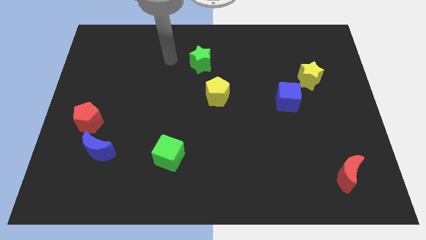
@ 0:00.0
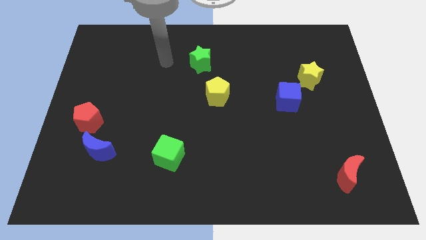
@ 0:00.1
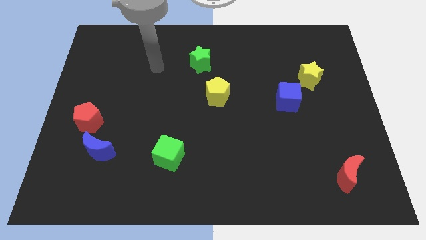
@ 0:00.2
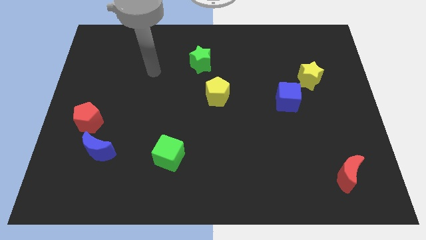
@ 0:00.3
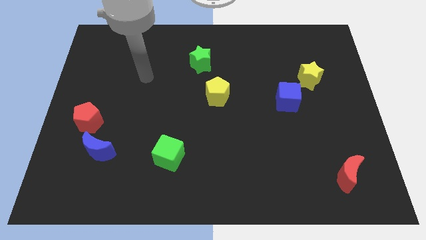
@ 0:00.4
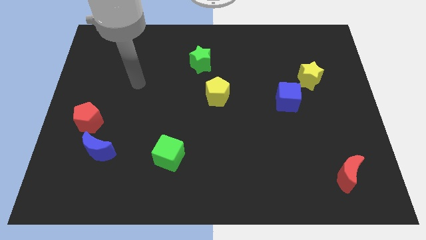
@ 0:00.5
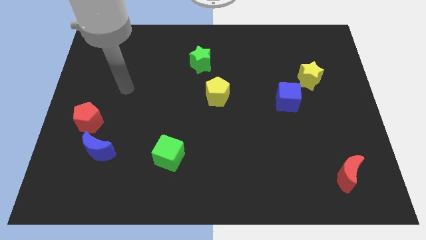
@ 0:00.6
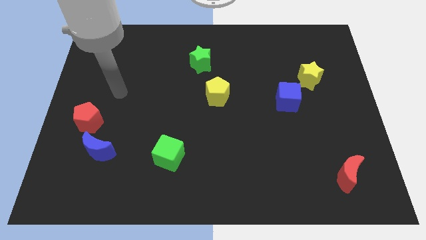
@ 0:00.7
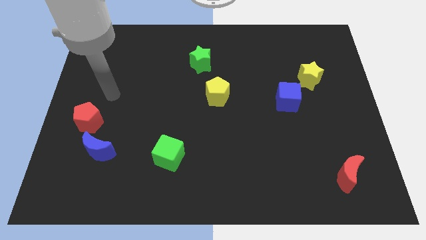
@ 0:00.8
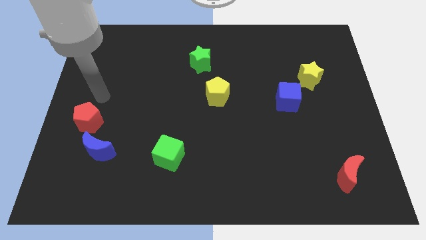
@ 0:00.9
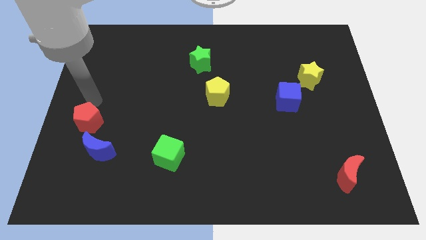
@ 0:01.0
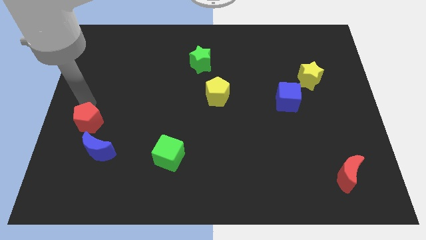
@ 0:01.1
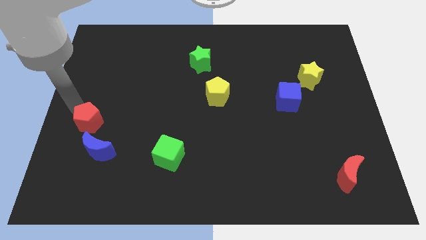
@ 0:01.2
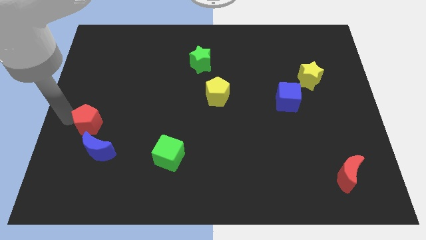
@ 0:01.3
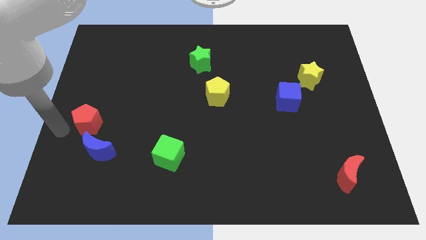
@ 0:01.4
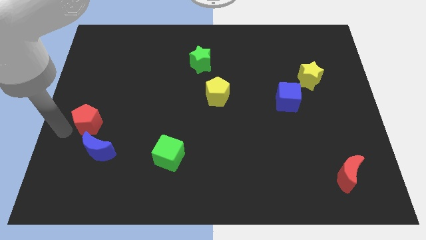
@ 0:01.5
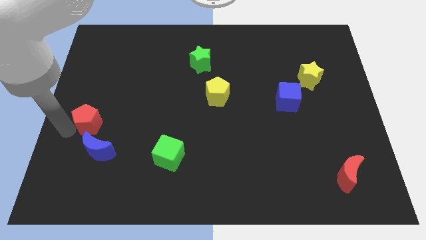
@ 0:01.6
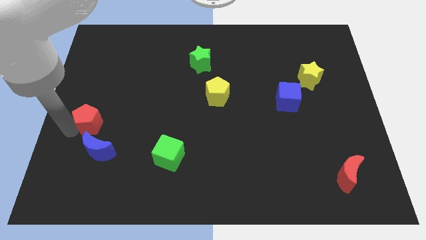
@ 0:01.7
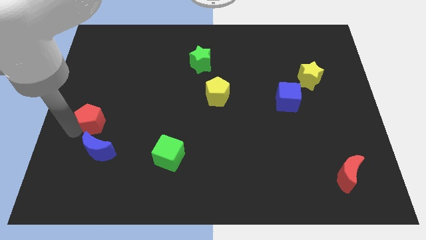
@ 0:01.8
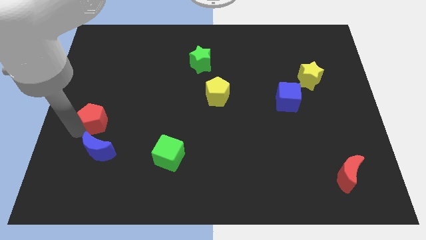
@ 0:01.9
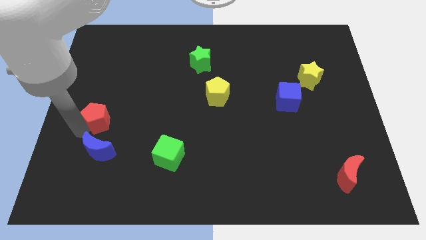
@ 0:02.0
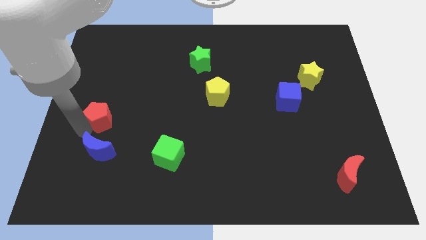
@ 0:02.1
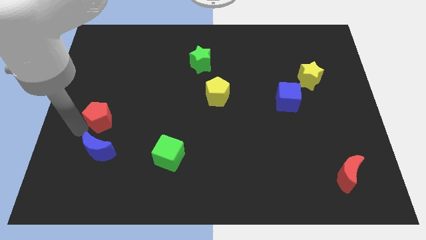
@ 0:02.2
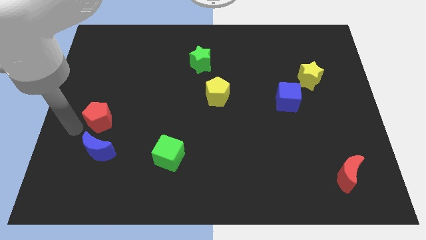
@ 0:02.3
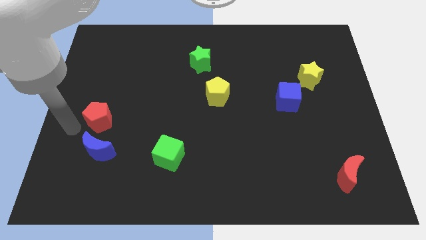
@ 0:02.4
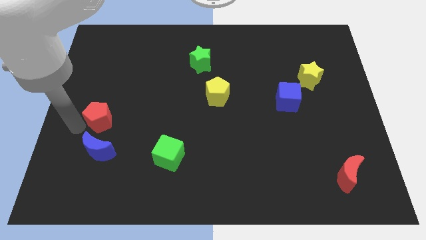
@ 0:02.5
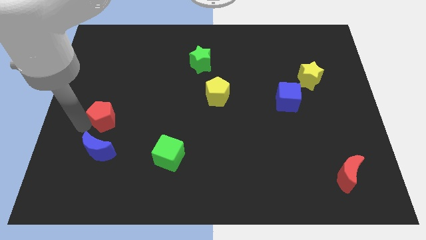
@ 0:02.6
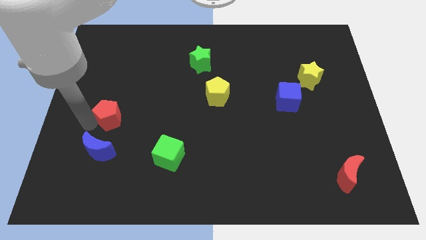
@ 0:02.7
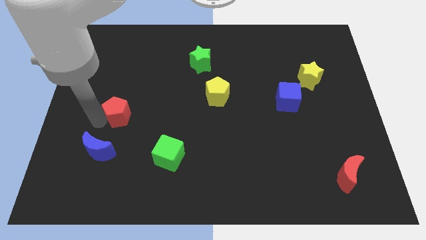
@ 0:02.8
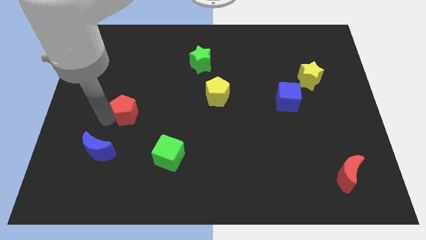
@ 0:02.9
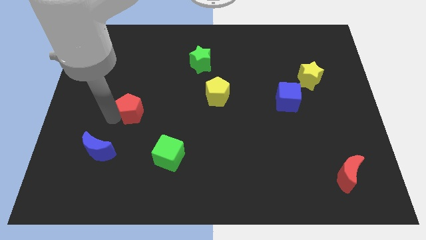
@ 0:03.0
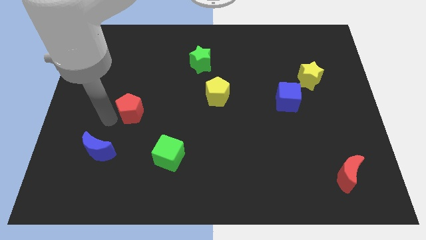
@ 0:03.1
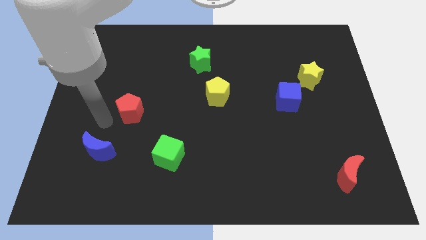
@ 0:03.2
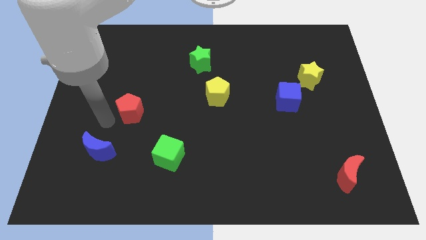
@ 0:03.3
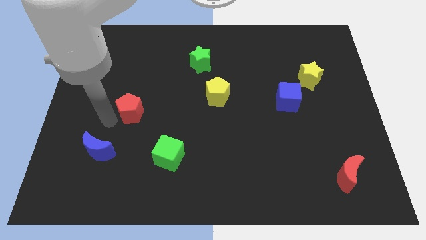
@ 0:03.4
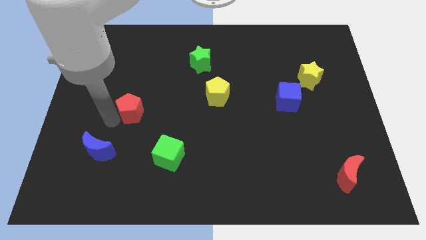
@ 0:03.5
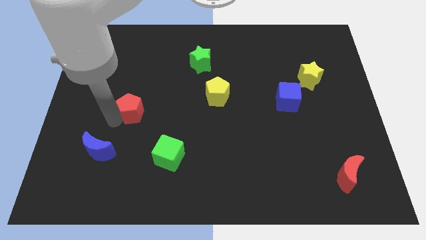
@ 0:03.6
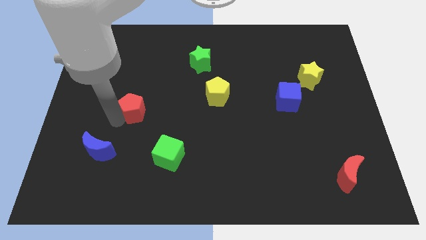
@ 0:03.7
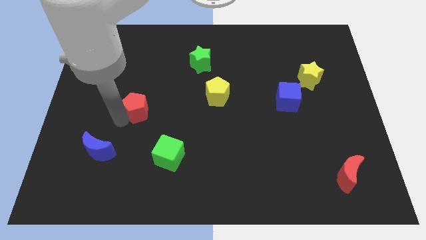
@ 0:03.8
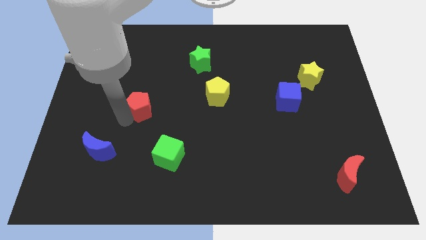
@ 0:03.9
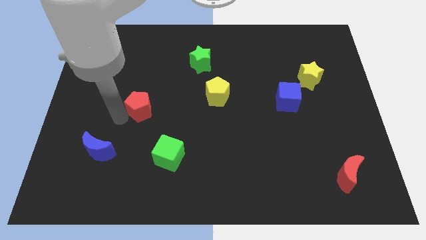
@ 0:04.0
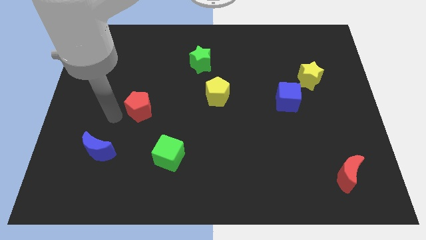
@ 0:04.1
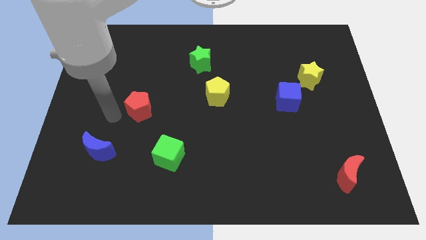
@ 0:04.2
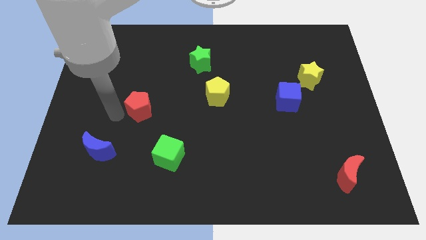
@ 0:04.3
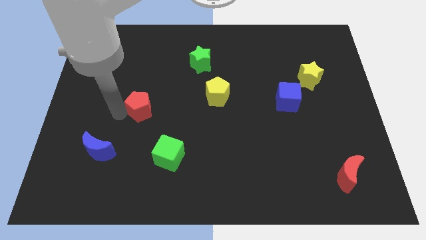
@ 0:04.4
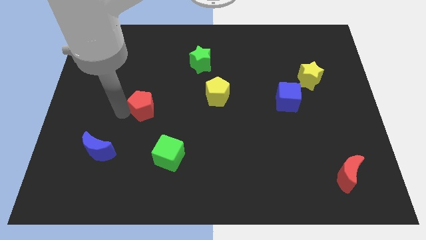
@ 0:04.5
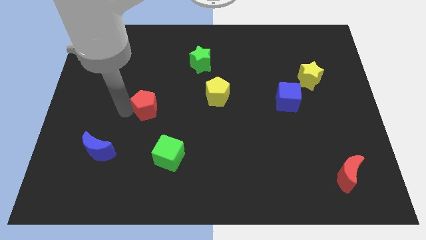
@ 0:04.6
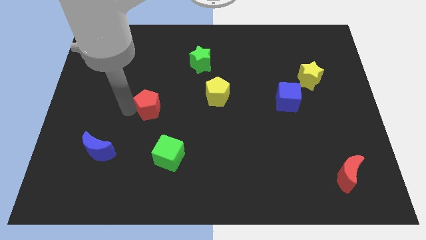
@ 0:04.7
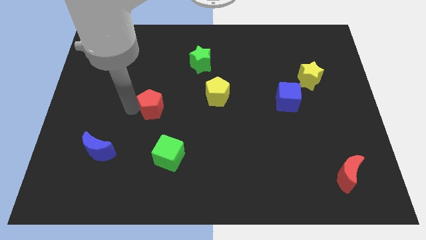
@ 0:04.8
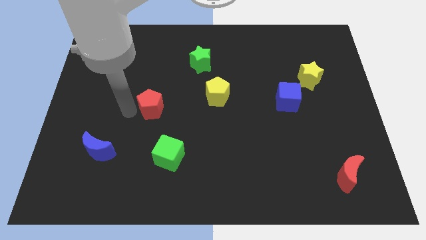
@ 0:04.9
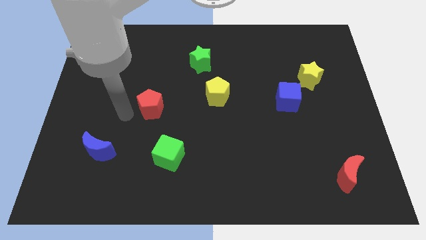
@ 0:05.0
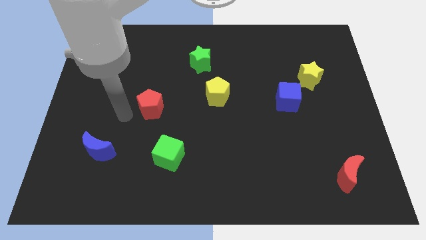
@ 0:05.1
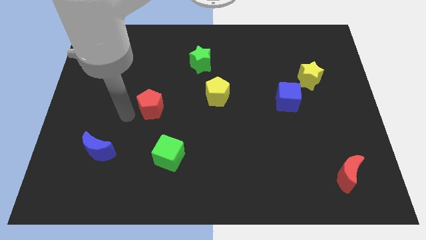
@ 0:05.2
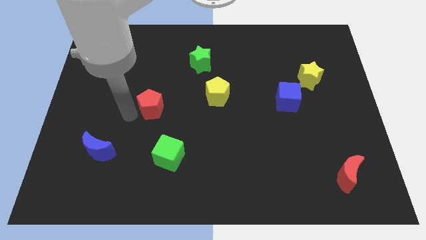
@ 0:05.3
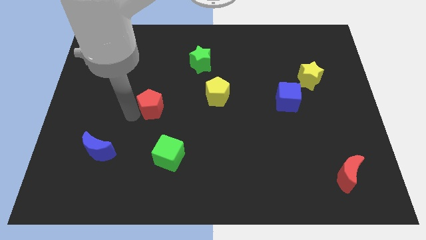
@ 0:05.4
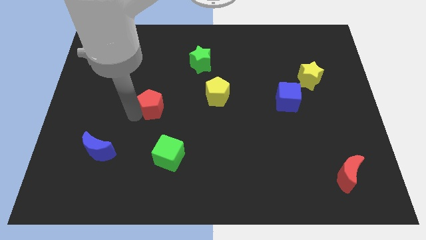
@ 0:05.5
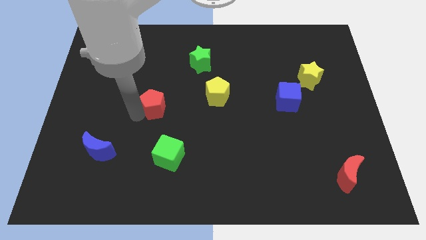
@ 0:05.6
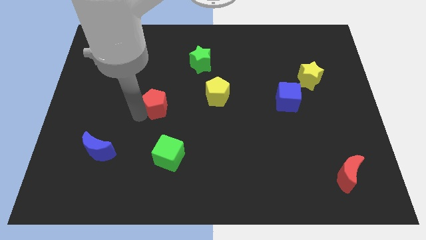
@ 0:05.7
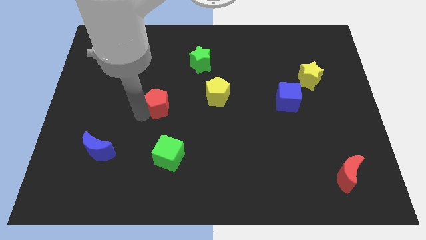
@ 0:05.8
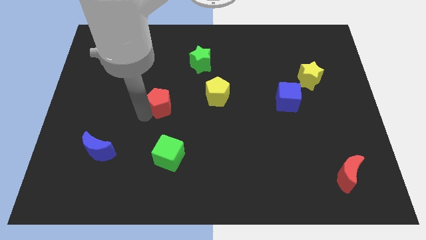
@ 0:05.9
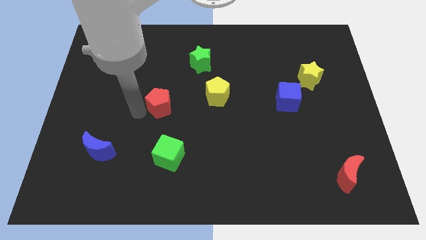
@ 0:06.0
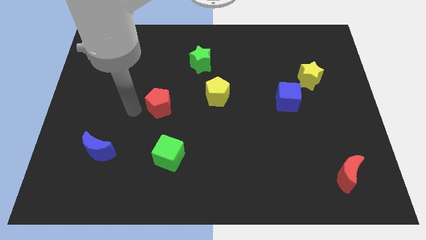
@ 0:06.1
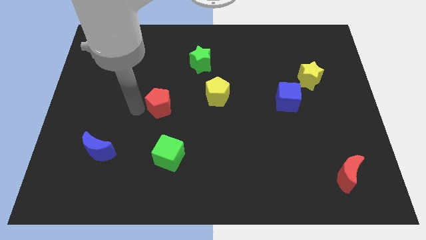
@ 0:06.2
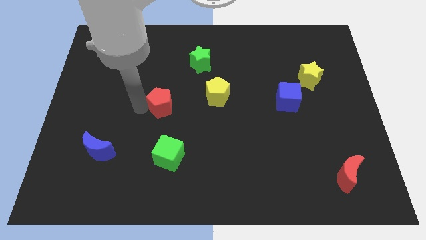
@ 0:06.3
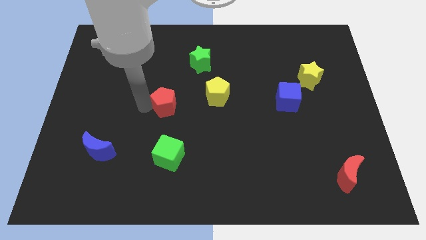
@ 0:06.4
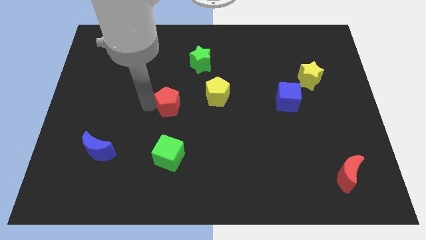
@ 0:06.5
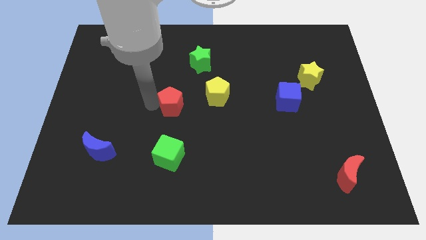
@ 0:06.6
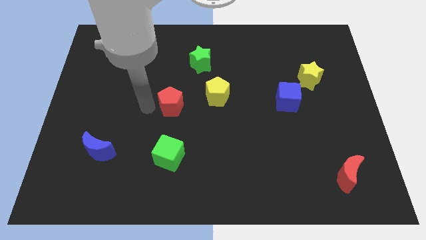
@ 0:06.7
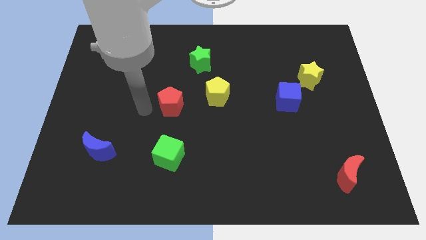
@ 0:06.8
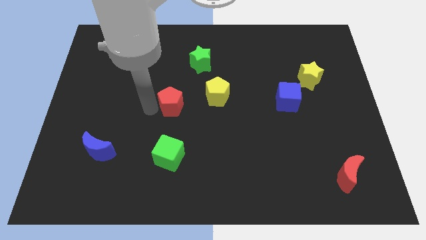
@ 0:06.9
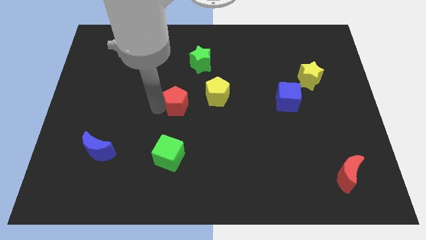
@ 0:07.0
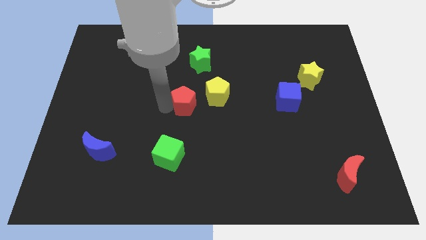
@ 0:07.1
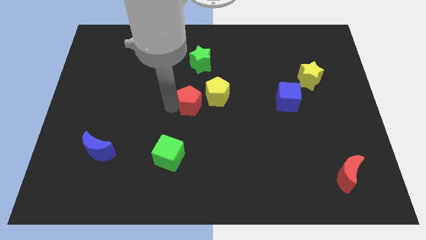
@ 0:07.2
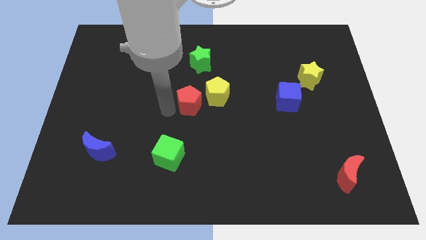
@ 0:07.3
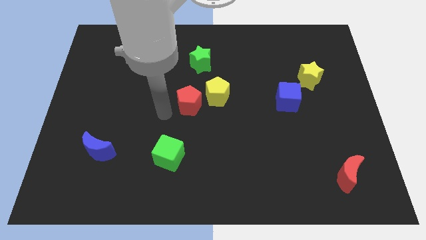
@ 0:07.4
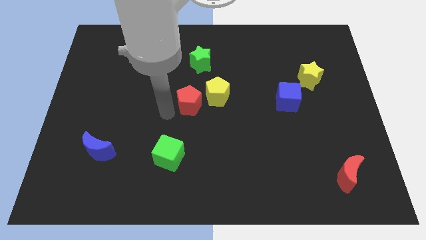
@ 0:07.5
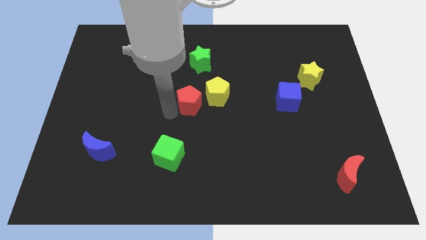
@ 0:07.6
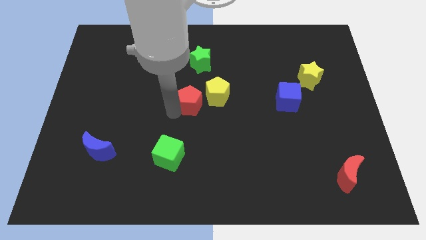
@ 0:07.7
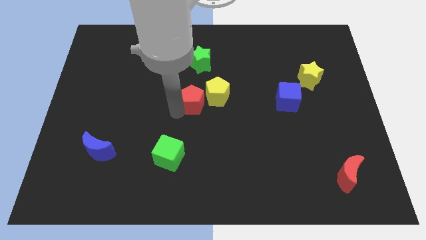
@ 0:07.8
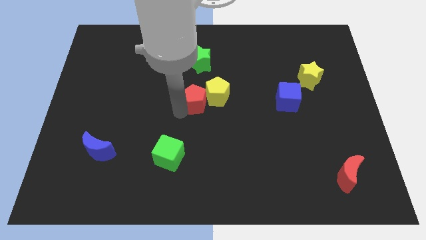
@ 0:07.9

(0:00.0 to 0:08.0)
move the red pentagon next to the yellow pentagon
